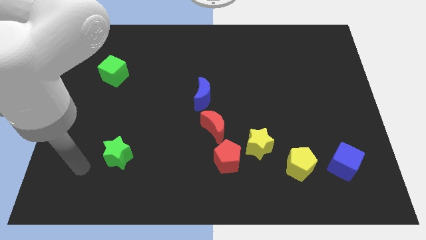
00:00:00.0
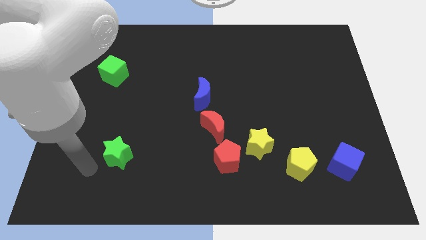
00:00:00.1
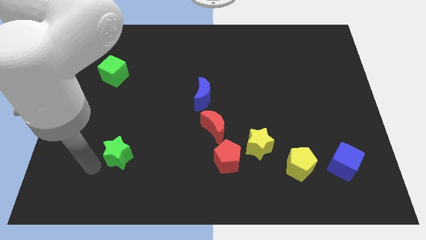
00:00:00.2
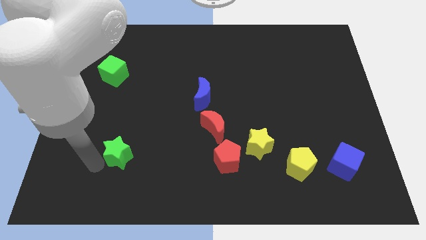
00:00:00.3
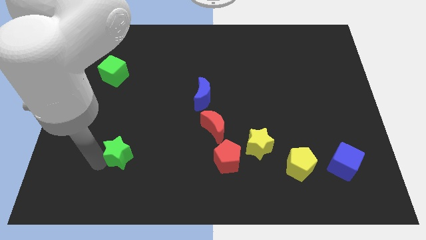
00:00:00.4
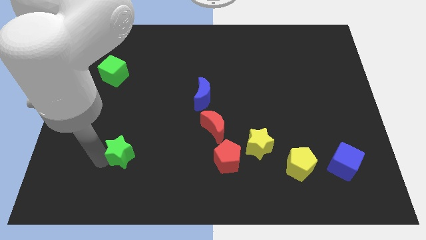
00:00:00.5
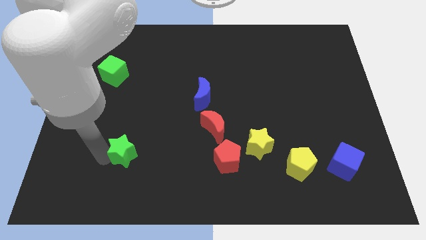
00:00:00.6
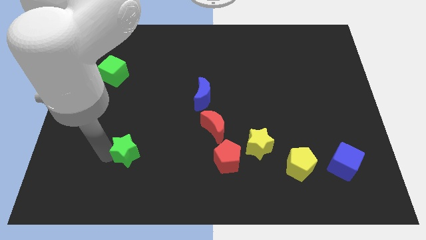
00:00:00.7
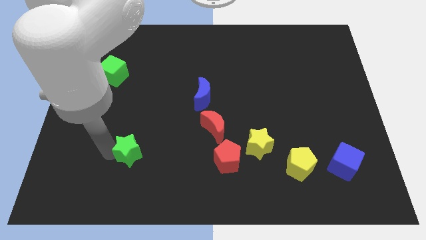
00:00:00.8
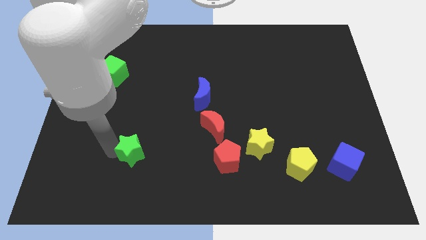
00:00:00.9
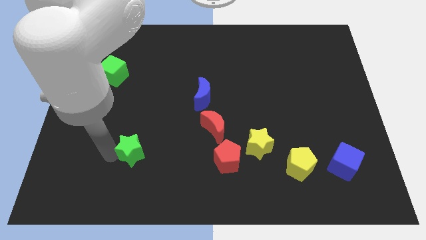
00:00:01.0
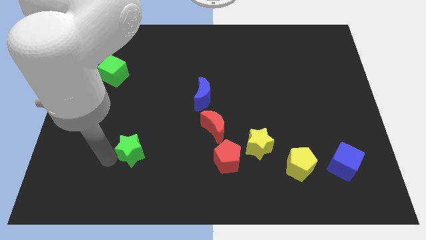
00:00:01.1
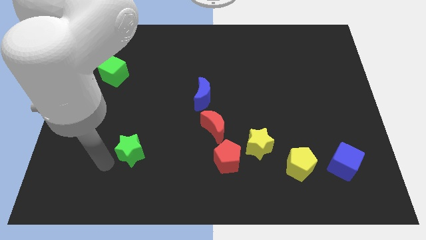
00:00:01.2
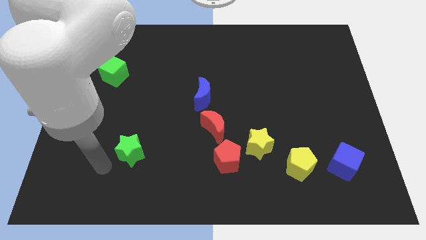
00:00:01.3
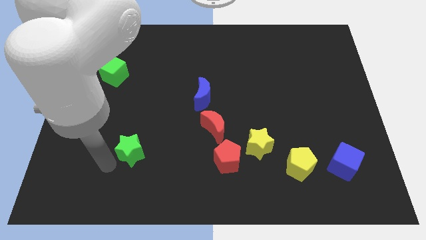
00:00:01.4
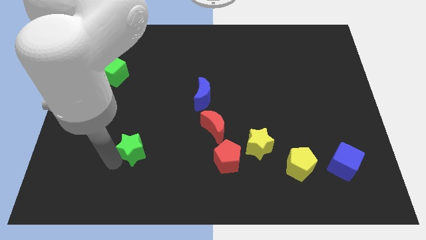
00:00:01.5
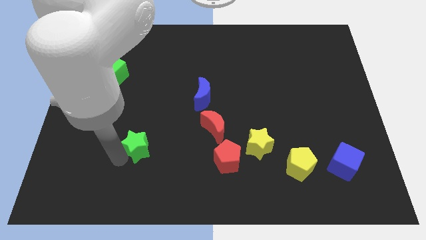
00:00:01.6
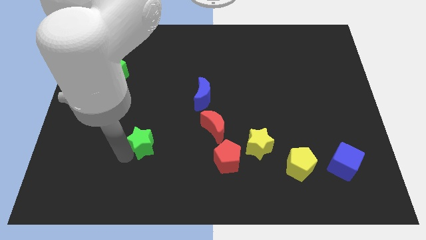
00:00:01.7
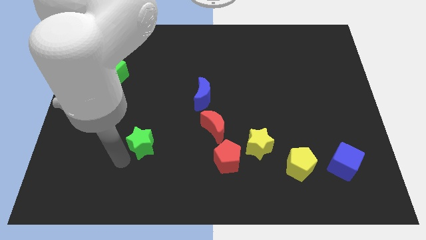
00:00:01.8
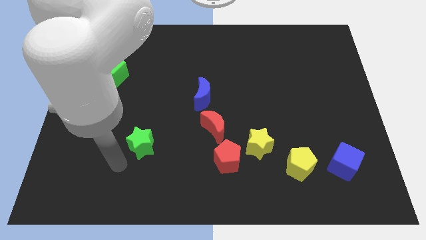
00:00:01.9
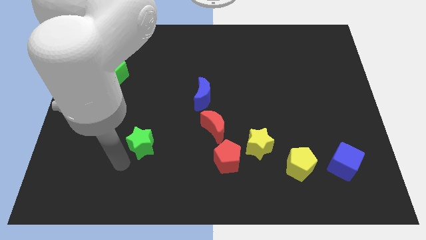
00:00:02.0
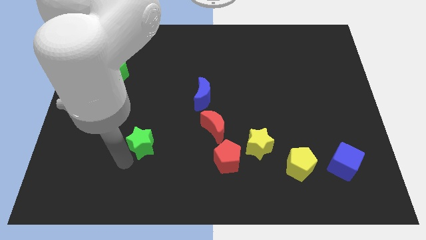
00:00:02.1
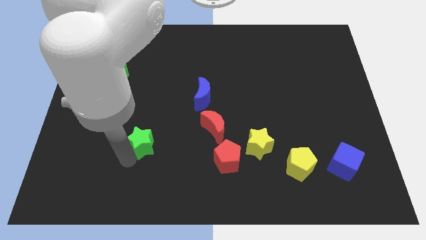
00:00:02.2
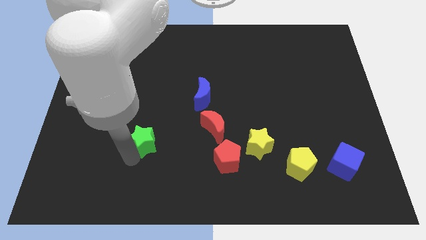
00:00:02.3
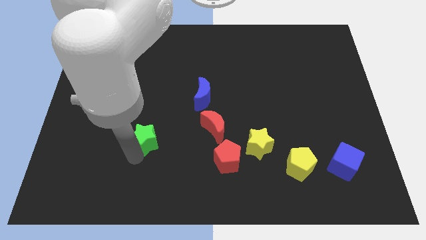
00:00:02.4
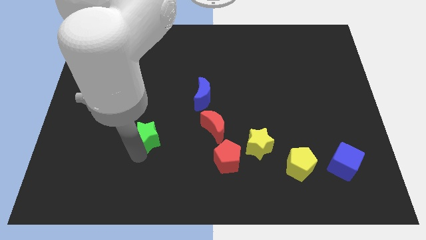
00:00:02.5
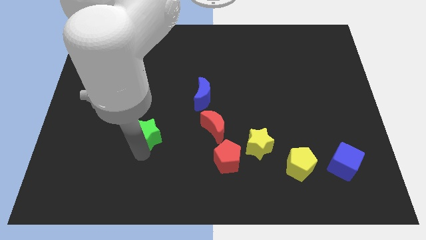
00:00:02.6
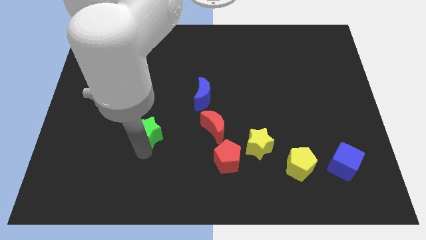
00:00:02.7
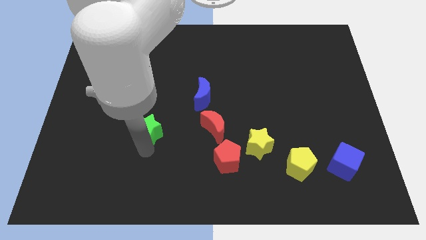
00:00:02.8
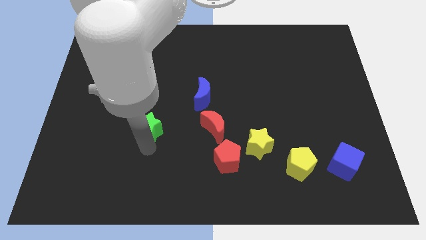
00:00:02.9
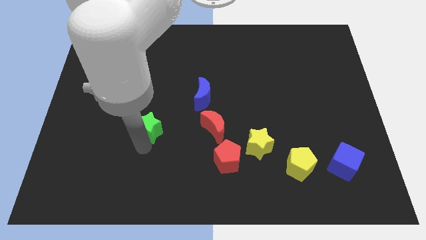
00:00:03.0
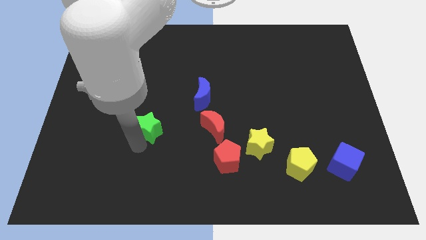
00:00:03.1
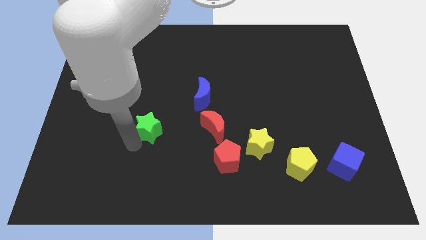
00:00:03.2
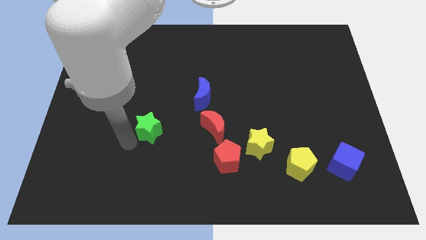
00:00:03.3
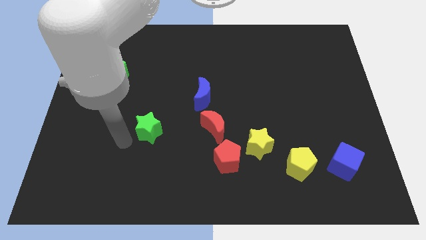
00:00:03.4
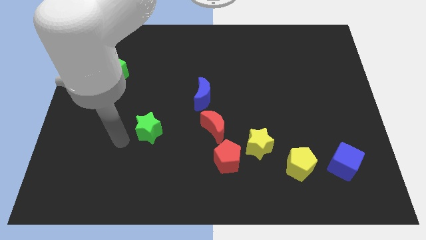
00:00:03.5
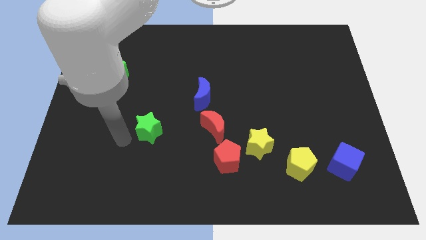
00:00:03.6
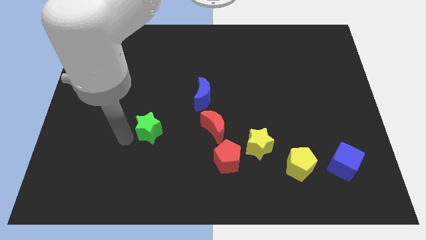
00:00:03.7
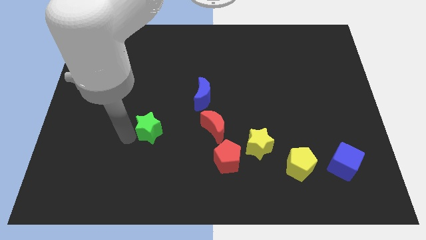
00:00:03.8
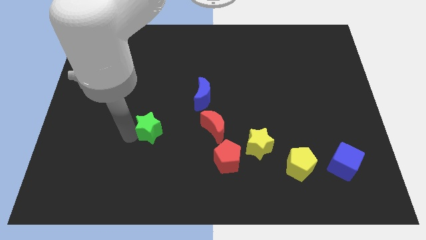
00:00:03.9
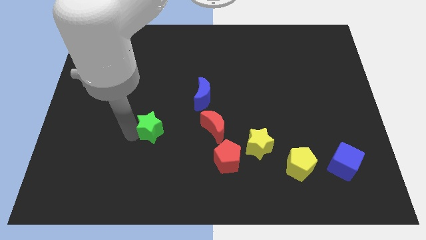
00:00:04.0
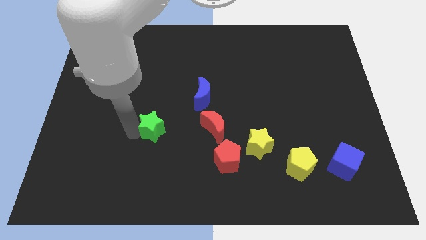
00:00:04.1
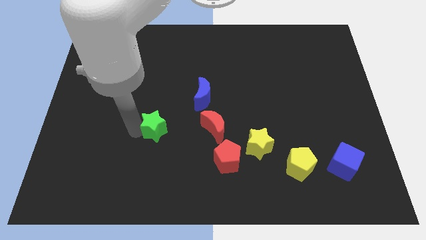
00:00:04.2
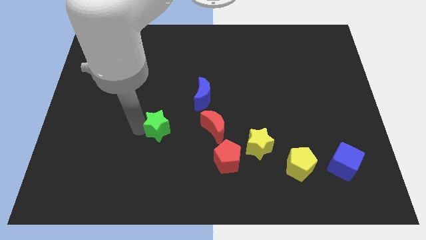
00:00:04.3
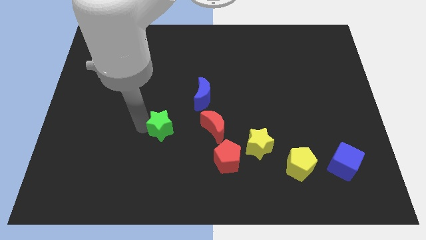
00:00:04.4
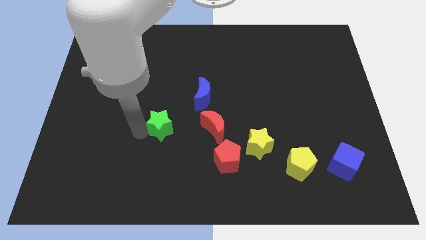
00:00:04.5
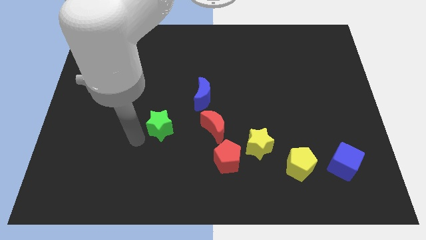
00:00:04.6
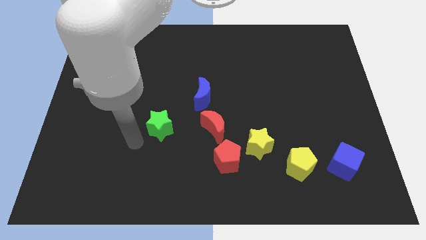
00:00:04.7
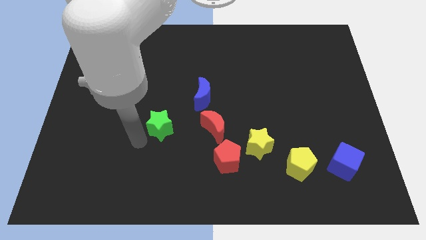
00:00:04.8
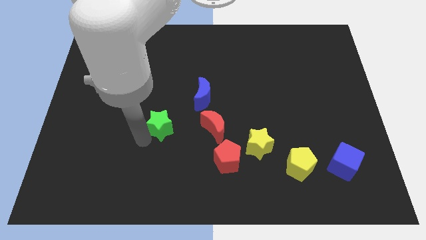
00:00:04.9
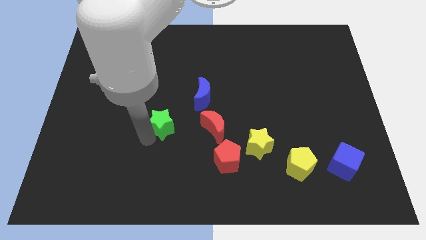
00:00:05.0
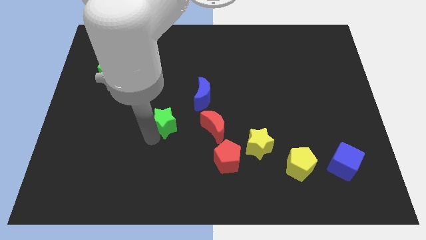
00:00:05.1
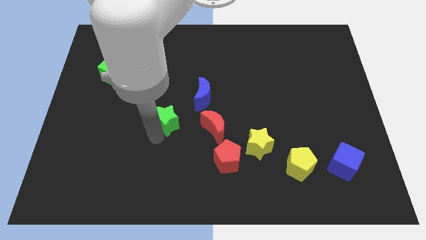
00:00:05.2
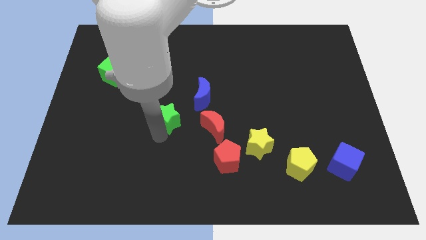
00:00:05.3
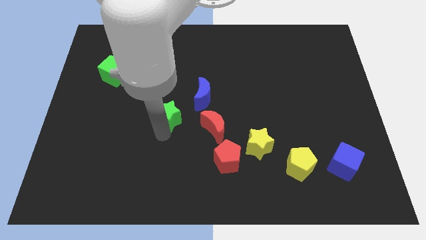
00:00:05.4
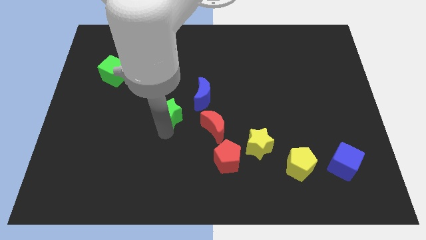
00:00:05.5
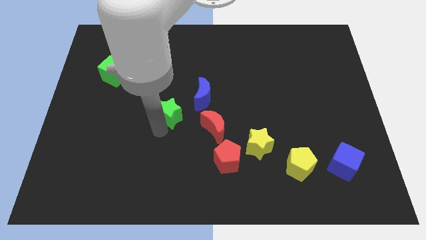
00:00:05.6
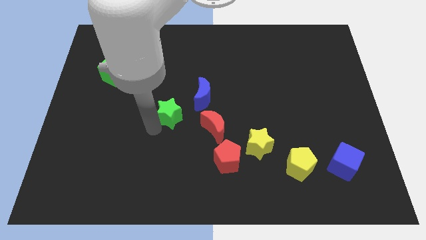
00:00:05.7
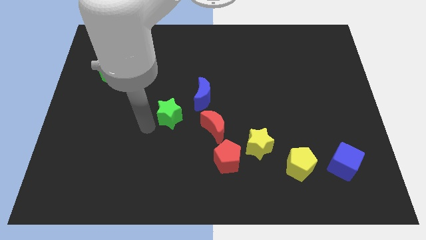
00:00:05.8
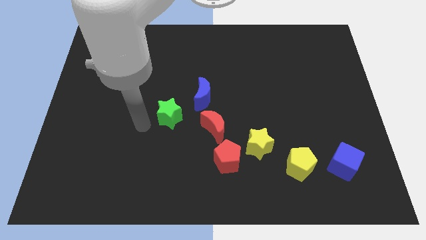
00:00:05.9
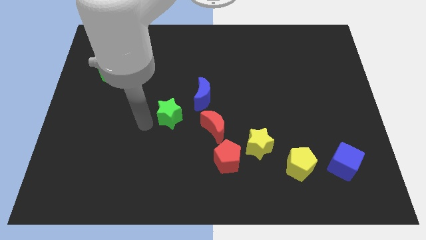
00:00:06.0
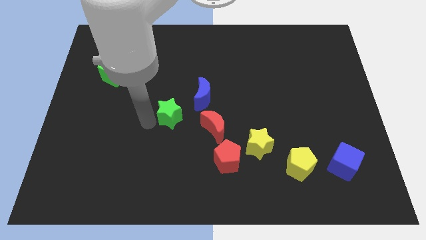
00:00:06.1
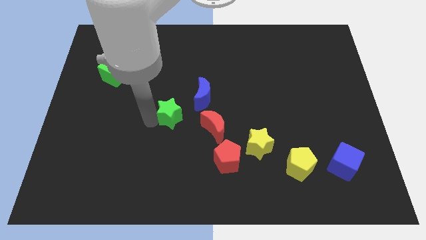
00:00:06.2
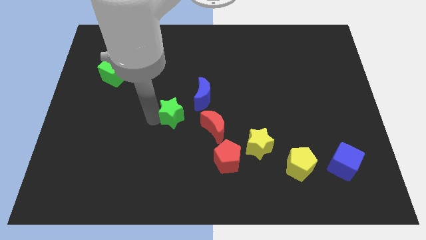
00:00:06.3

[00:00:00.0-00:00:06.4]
slide the green star to the top left side of the red moon
